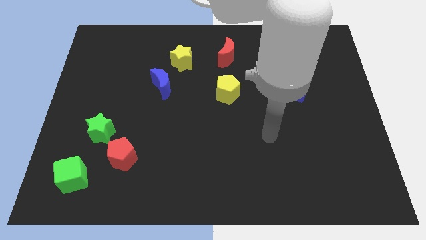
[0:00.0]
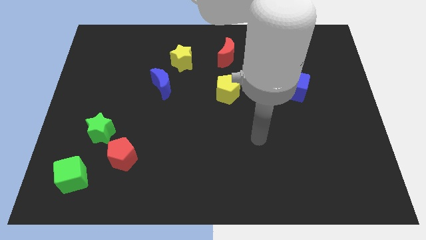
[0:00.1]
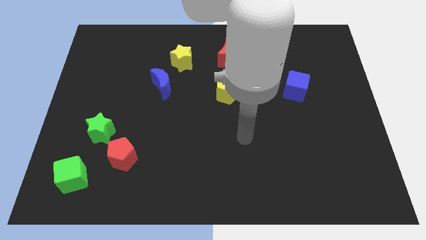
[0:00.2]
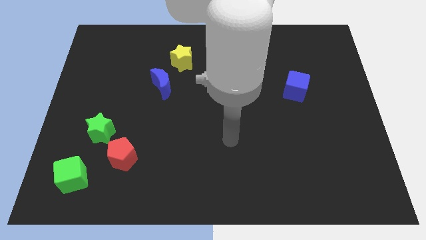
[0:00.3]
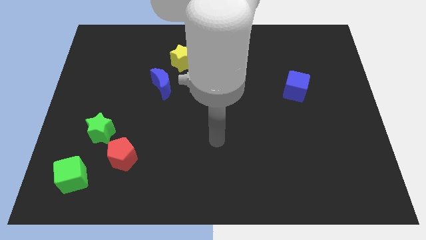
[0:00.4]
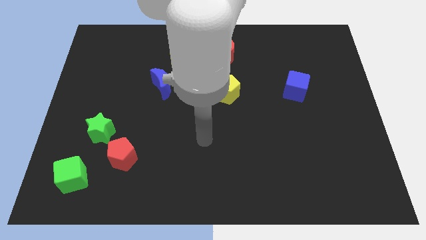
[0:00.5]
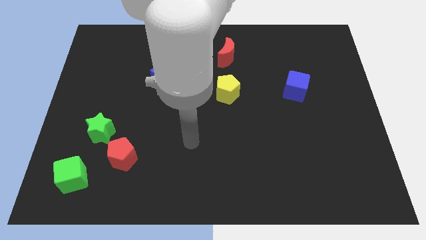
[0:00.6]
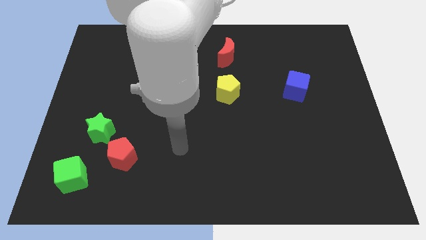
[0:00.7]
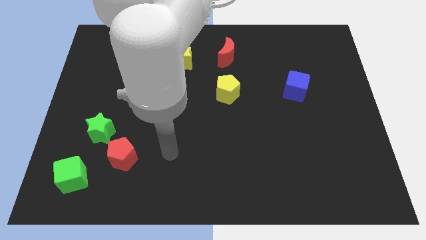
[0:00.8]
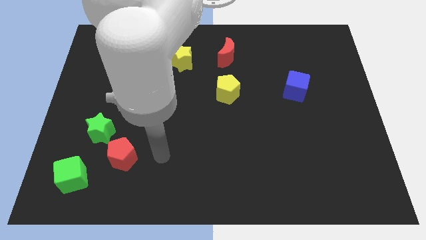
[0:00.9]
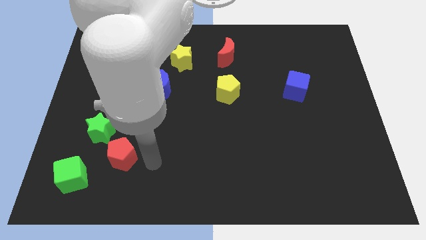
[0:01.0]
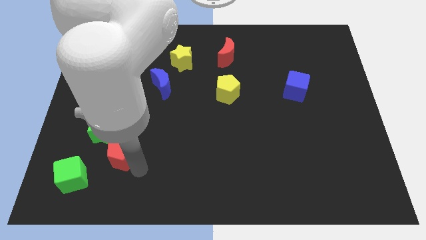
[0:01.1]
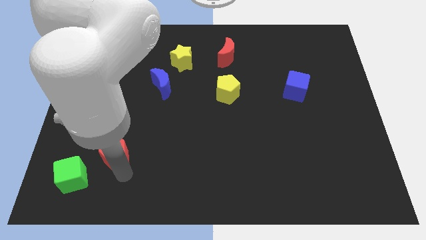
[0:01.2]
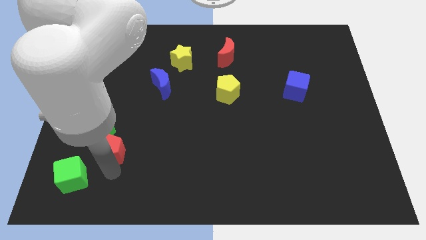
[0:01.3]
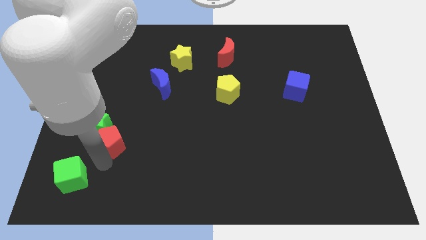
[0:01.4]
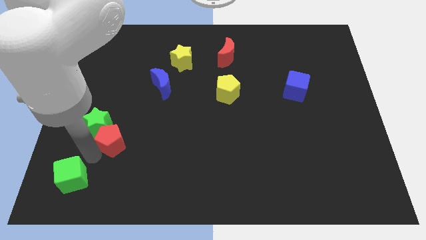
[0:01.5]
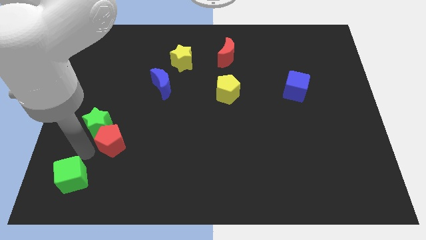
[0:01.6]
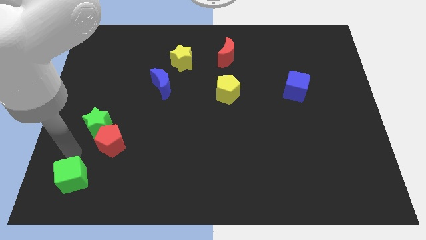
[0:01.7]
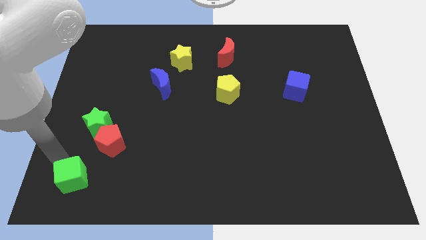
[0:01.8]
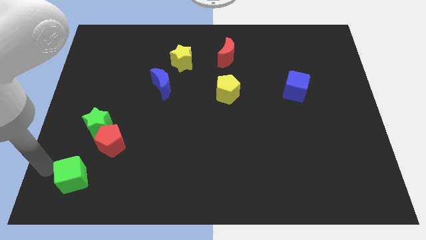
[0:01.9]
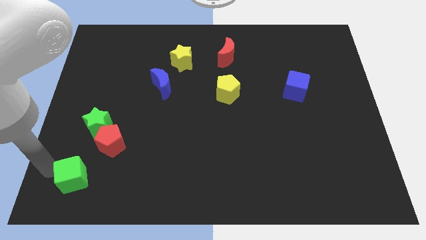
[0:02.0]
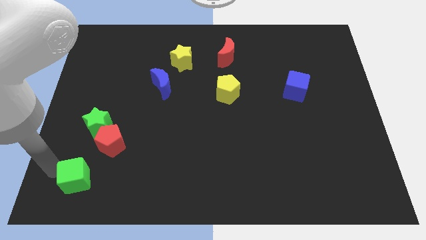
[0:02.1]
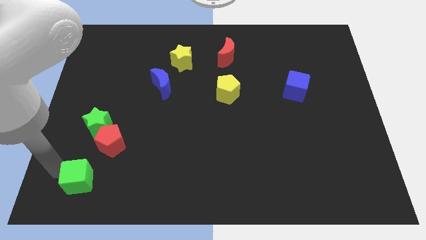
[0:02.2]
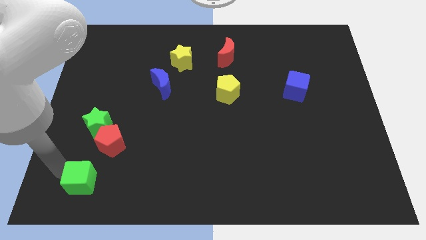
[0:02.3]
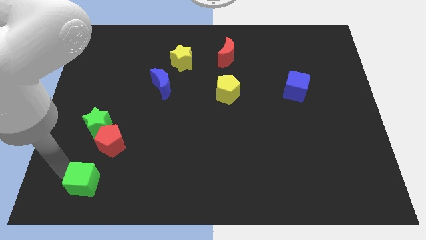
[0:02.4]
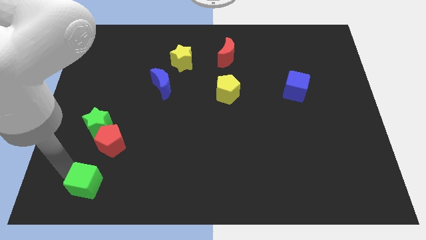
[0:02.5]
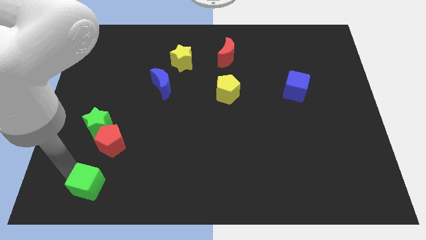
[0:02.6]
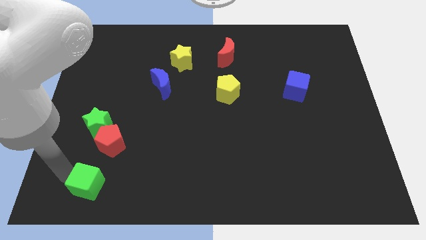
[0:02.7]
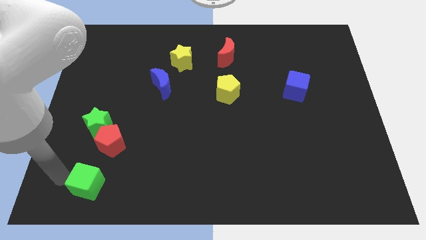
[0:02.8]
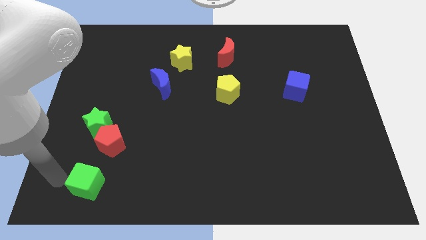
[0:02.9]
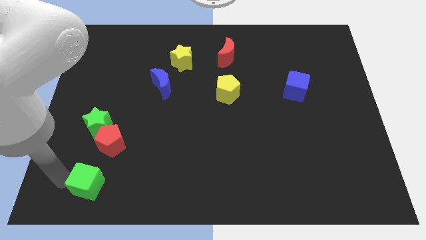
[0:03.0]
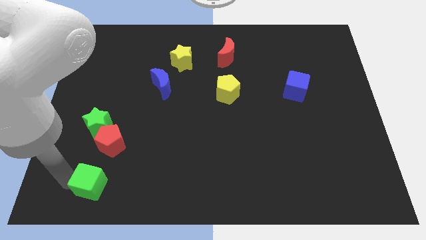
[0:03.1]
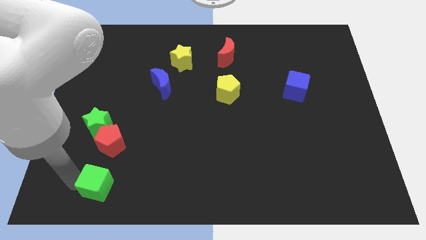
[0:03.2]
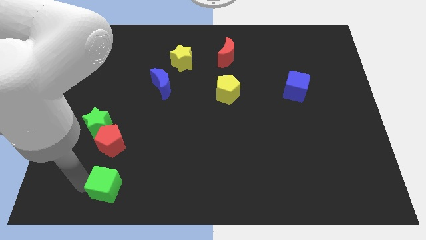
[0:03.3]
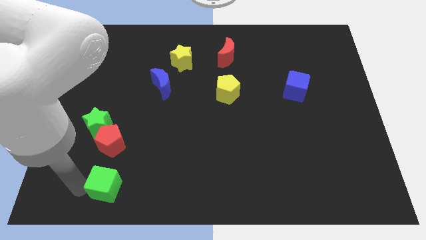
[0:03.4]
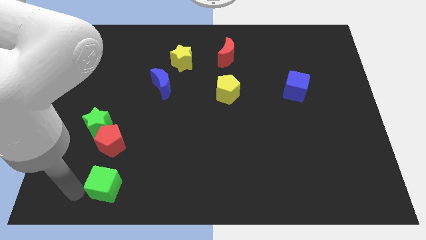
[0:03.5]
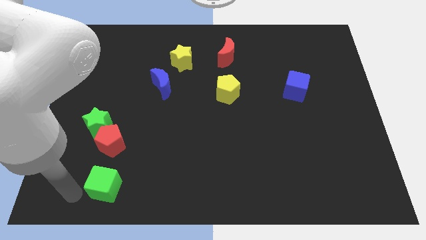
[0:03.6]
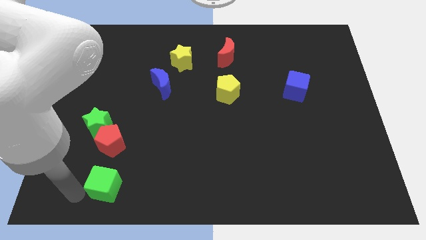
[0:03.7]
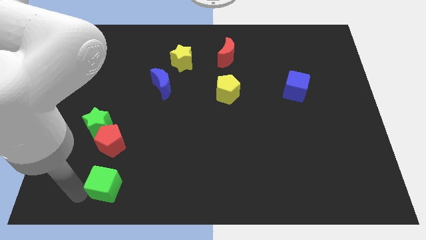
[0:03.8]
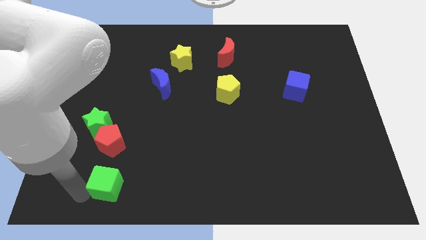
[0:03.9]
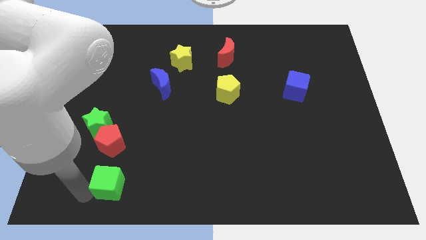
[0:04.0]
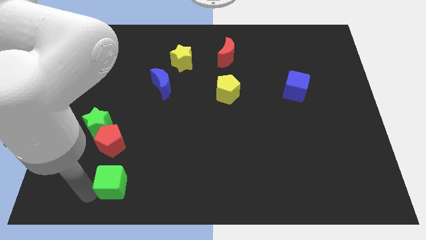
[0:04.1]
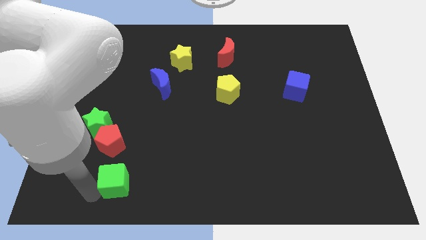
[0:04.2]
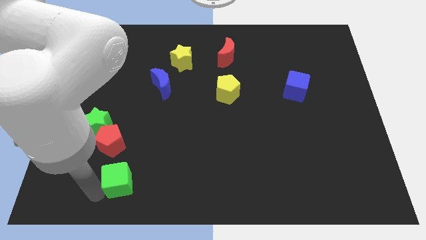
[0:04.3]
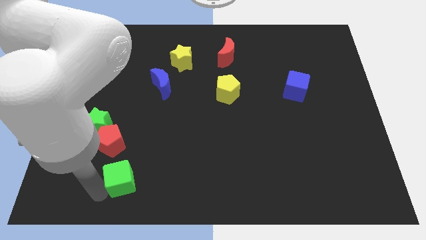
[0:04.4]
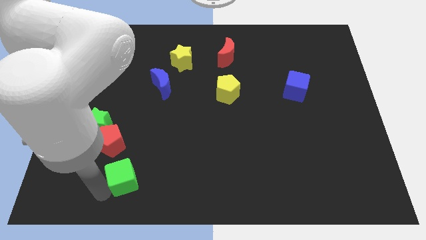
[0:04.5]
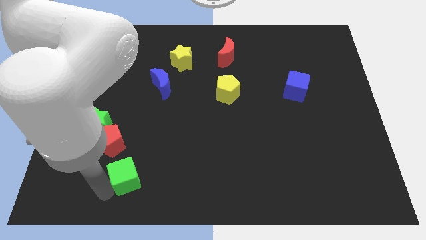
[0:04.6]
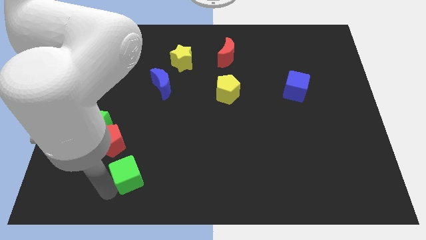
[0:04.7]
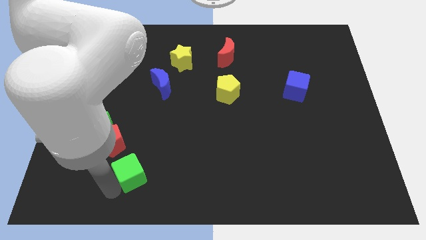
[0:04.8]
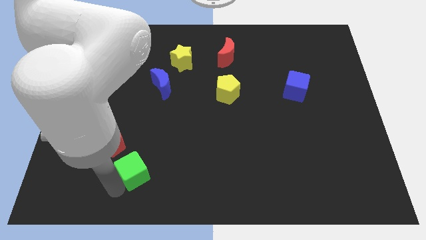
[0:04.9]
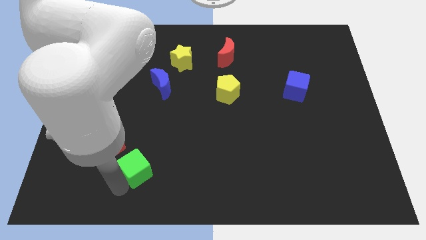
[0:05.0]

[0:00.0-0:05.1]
slide the green cube a little bit upwards and then to the right

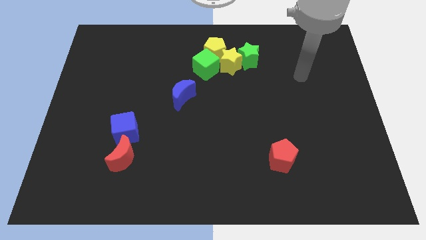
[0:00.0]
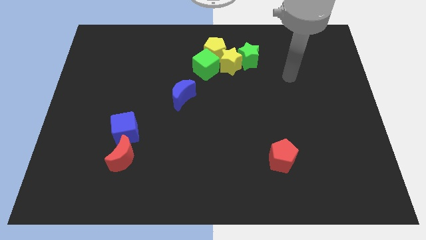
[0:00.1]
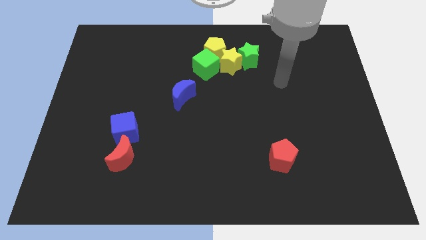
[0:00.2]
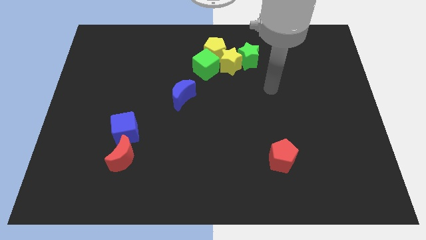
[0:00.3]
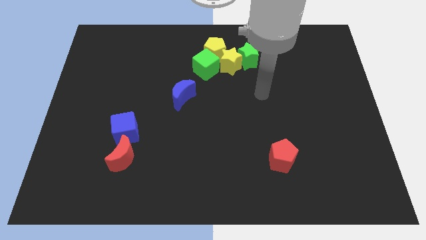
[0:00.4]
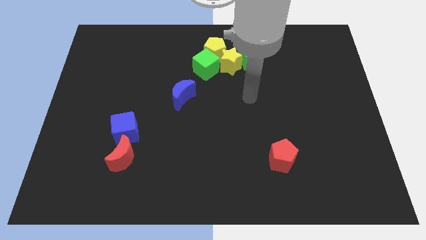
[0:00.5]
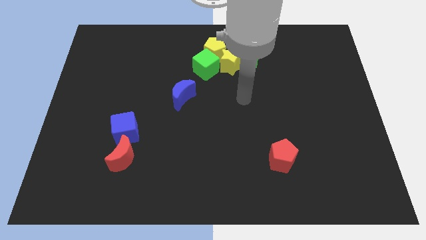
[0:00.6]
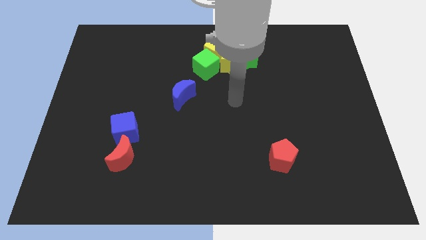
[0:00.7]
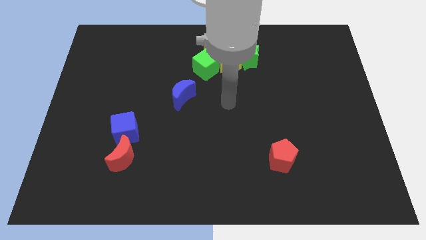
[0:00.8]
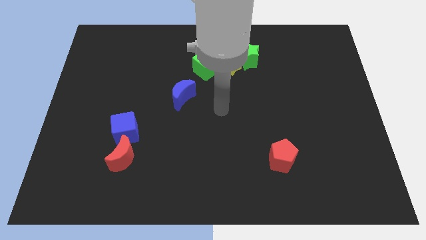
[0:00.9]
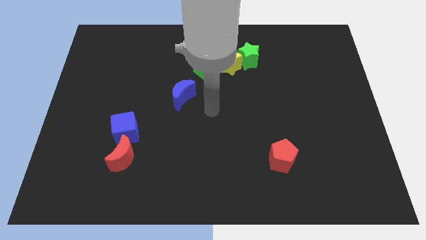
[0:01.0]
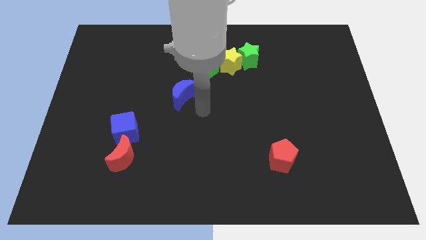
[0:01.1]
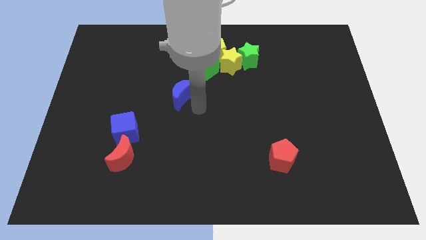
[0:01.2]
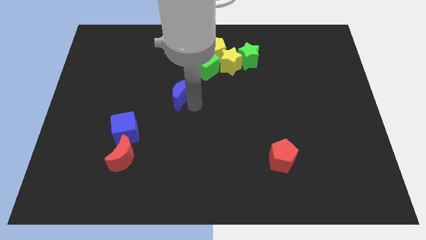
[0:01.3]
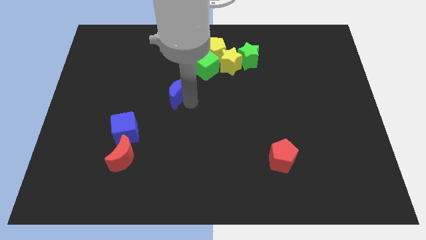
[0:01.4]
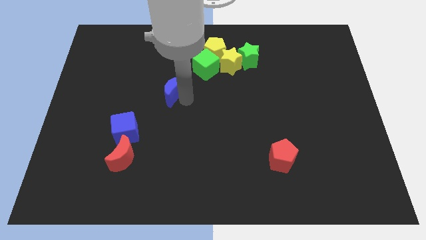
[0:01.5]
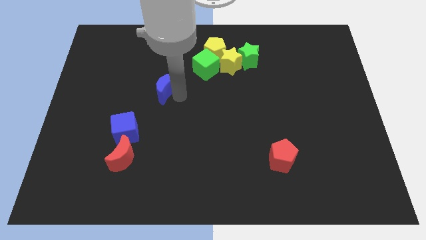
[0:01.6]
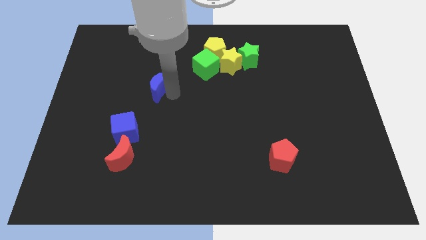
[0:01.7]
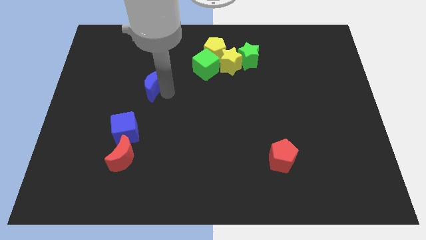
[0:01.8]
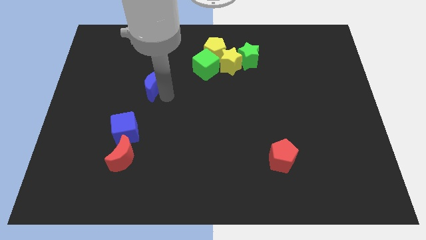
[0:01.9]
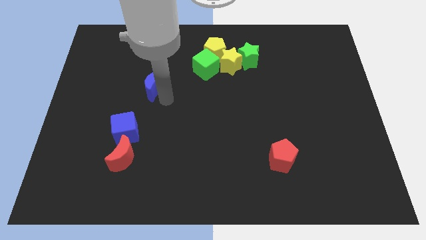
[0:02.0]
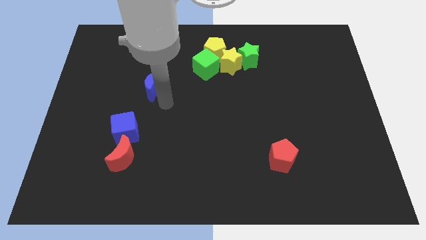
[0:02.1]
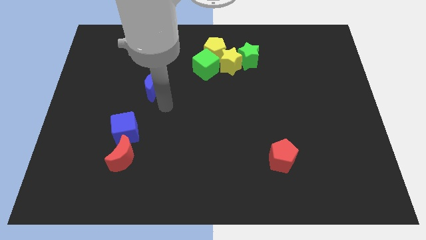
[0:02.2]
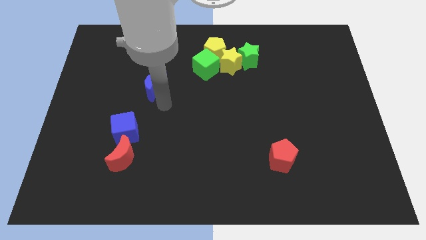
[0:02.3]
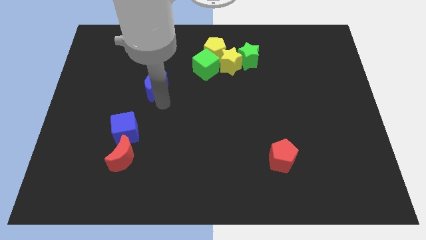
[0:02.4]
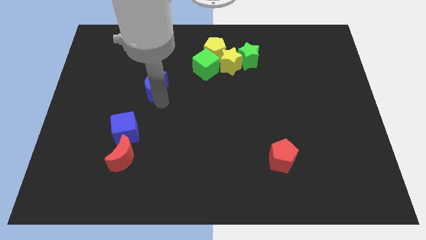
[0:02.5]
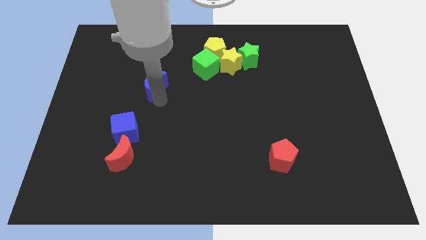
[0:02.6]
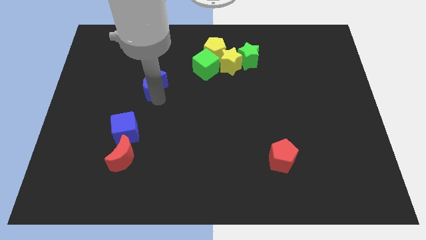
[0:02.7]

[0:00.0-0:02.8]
move the blue moon up and then to the left somewhat

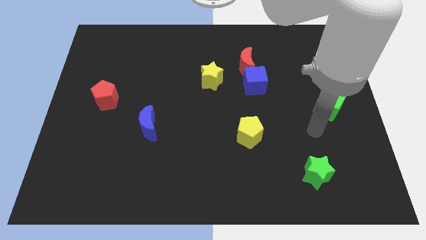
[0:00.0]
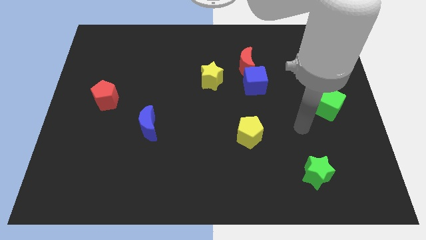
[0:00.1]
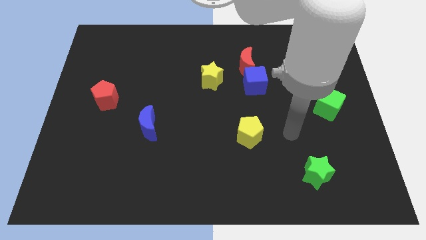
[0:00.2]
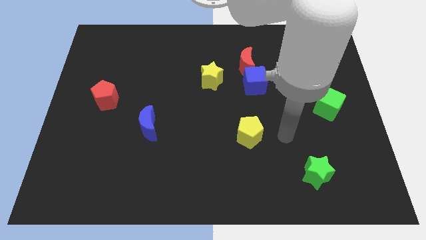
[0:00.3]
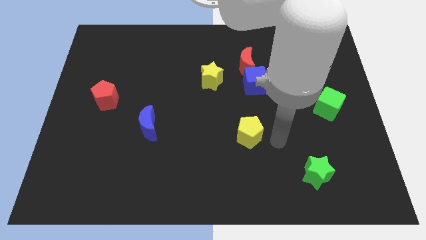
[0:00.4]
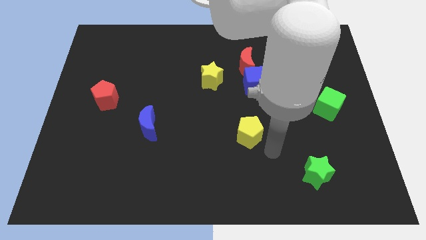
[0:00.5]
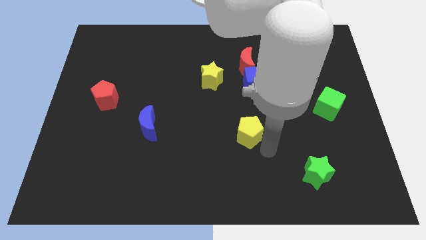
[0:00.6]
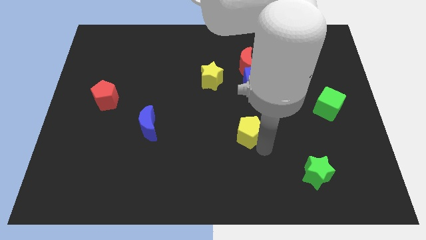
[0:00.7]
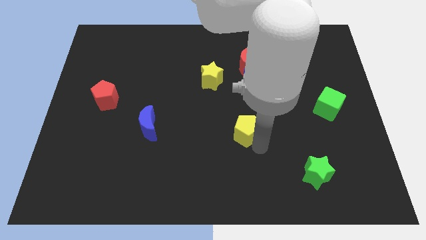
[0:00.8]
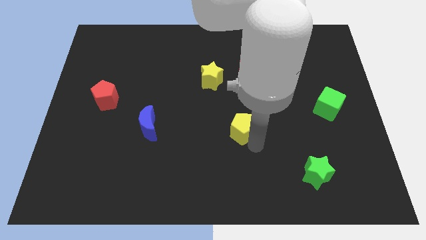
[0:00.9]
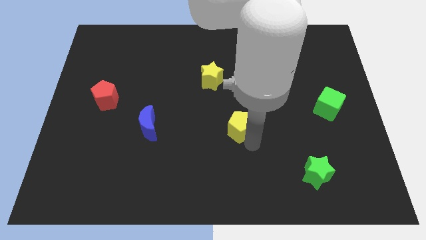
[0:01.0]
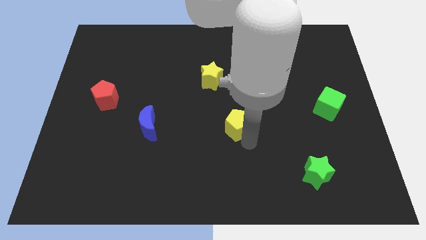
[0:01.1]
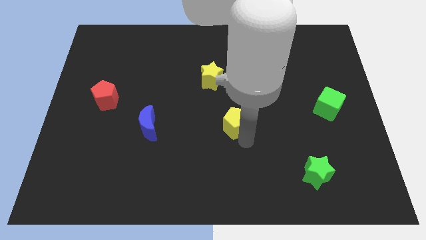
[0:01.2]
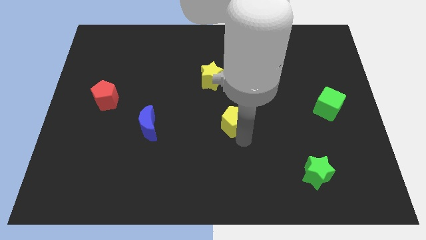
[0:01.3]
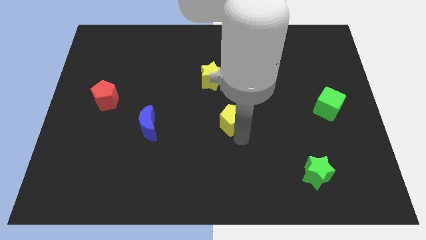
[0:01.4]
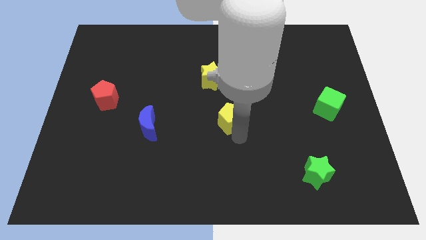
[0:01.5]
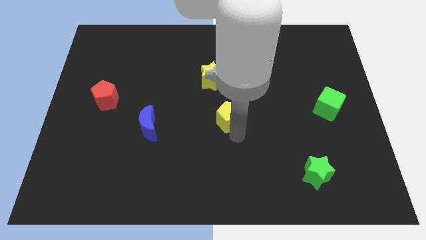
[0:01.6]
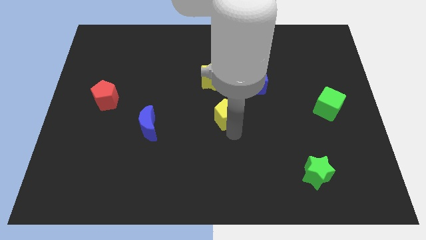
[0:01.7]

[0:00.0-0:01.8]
slide the yellow pentagon up and left a bit
